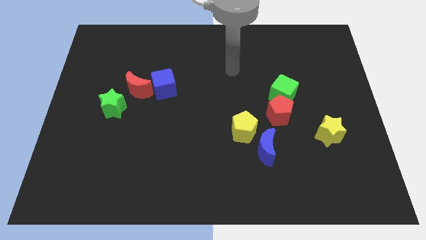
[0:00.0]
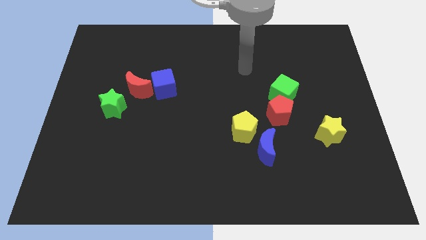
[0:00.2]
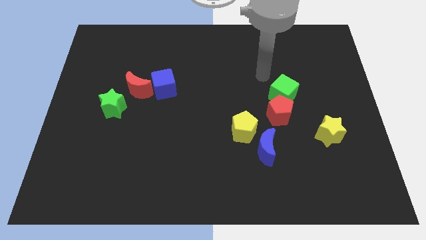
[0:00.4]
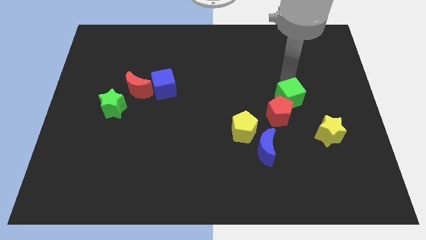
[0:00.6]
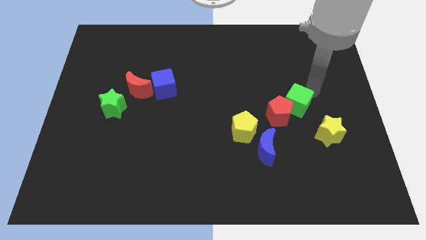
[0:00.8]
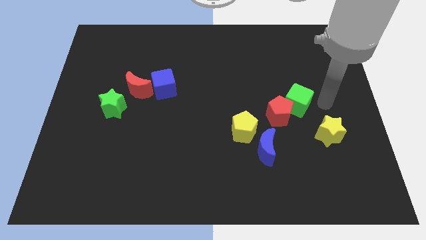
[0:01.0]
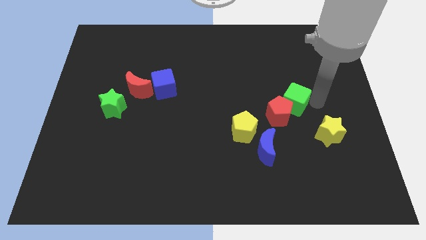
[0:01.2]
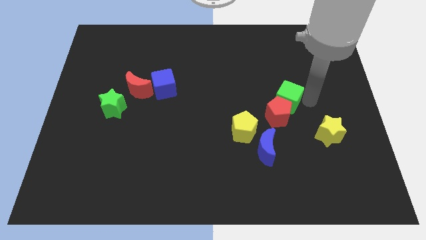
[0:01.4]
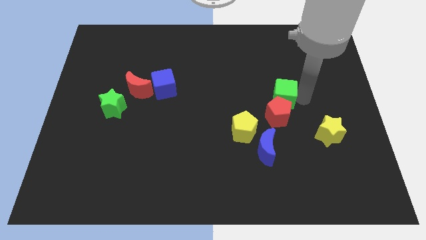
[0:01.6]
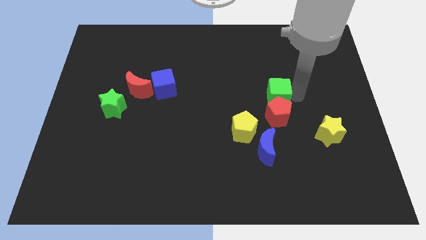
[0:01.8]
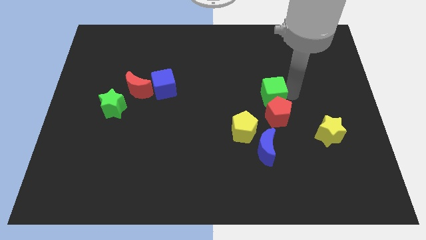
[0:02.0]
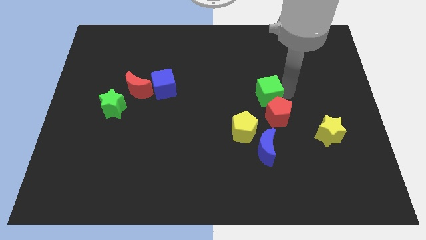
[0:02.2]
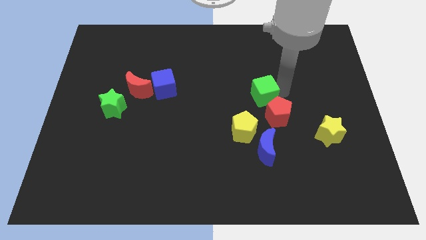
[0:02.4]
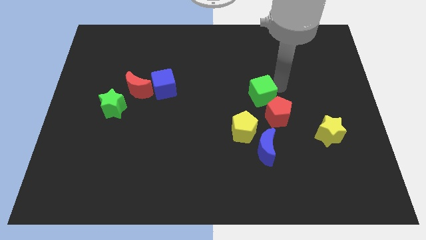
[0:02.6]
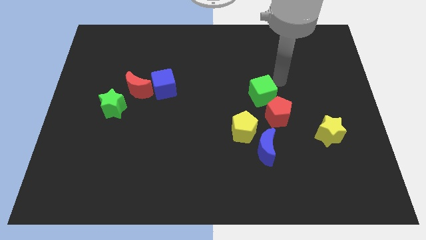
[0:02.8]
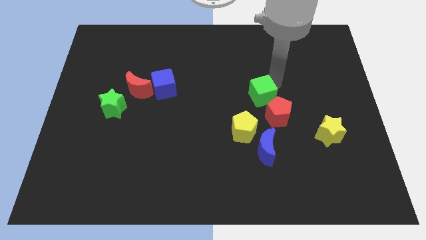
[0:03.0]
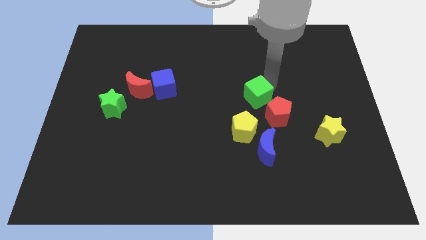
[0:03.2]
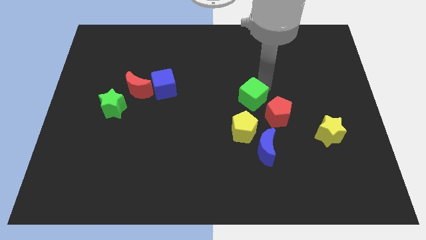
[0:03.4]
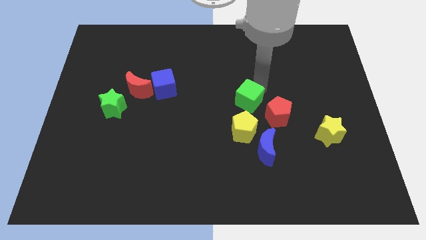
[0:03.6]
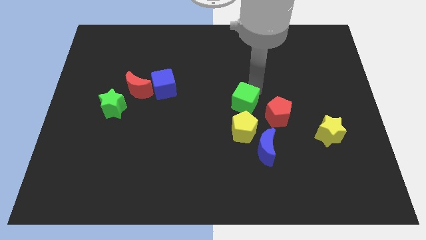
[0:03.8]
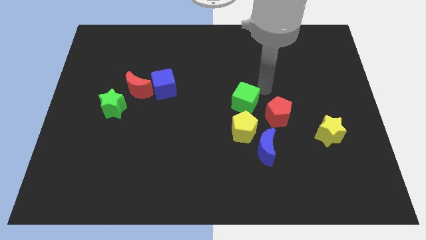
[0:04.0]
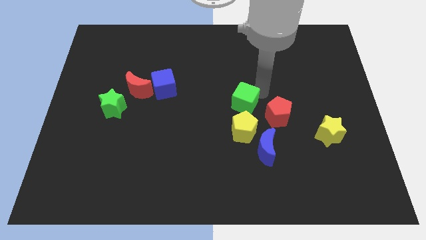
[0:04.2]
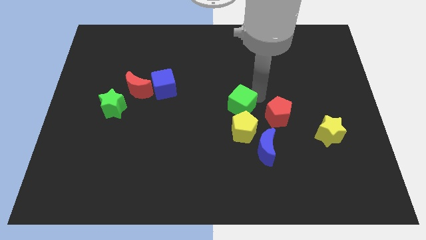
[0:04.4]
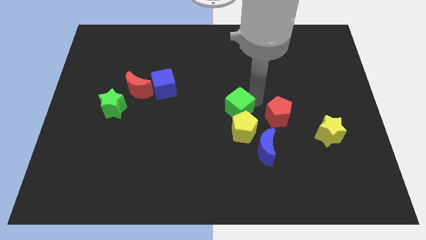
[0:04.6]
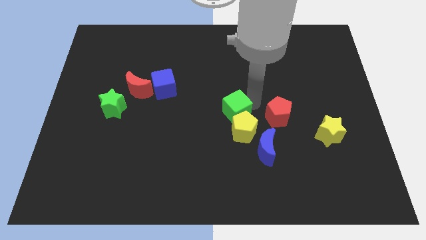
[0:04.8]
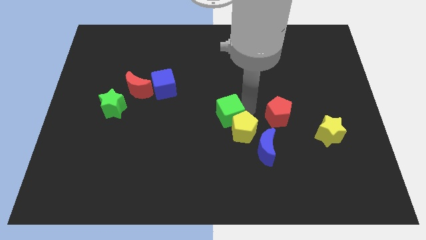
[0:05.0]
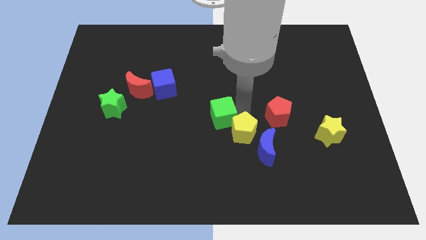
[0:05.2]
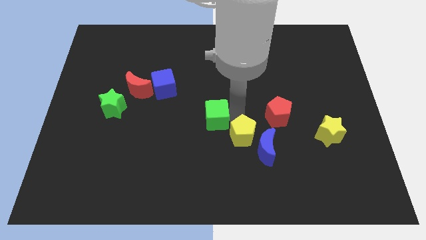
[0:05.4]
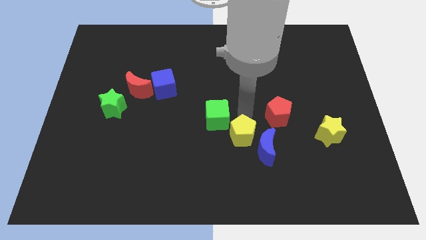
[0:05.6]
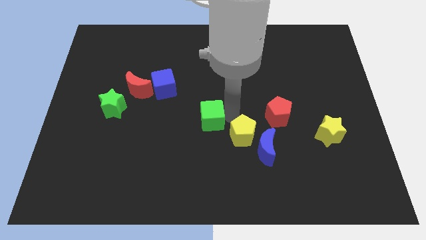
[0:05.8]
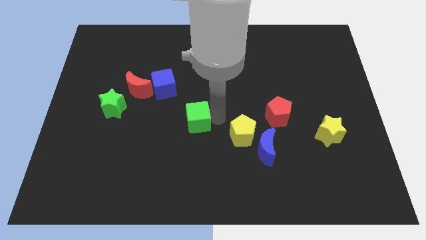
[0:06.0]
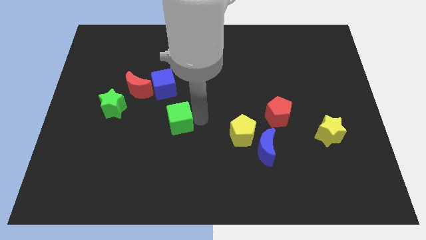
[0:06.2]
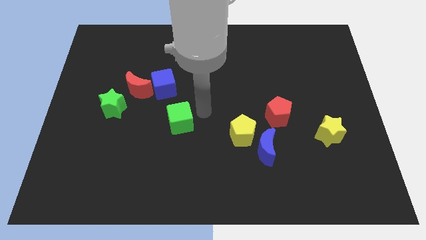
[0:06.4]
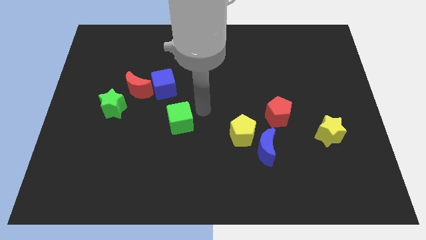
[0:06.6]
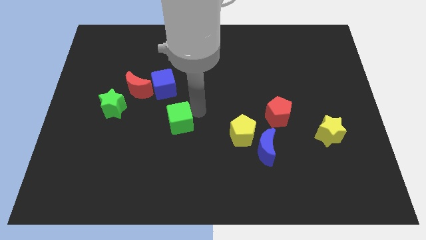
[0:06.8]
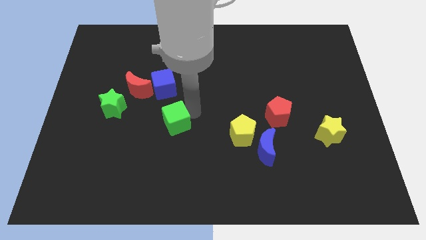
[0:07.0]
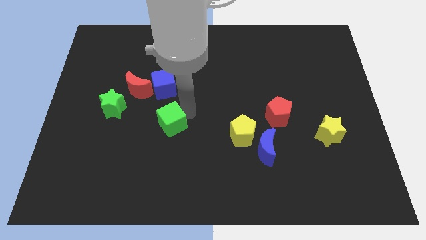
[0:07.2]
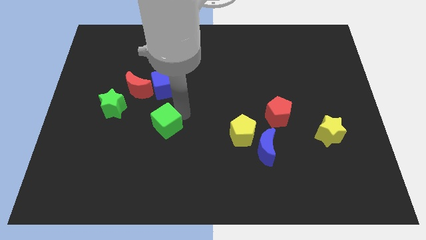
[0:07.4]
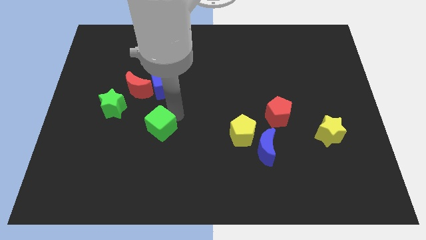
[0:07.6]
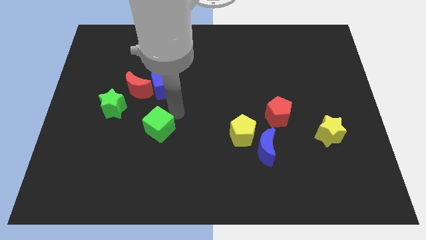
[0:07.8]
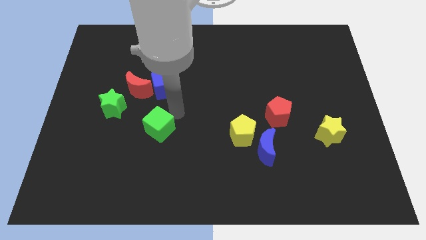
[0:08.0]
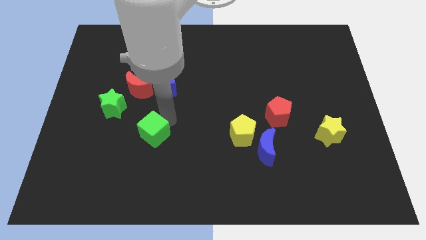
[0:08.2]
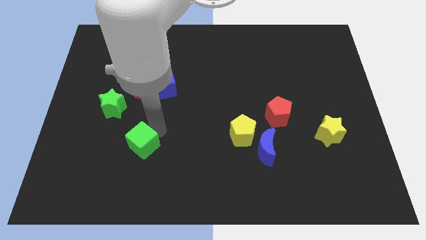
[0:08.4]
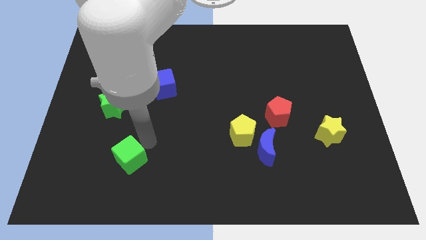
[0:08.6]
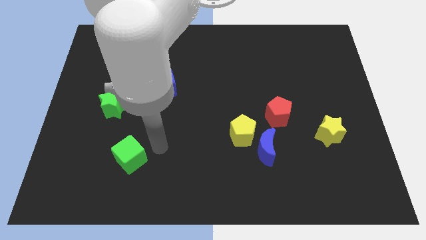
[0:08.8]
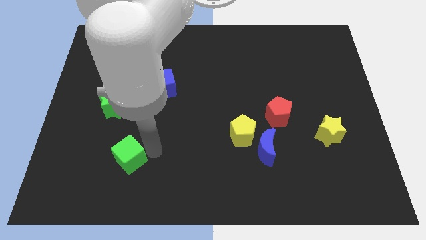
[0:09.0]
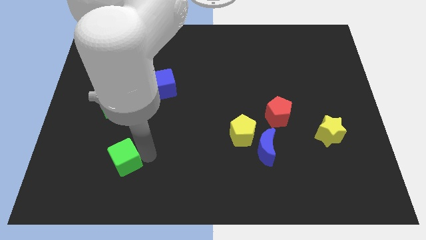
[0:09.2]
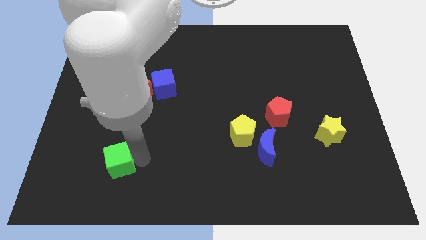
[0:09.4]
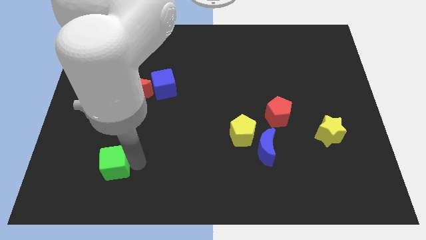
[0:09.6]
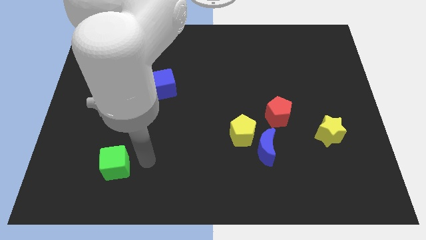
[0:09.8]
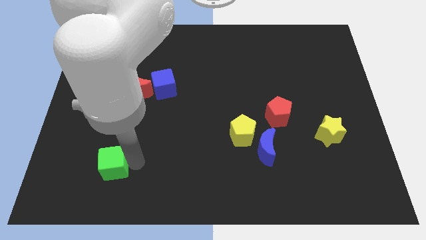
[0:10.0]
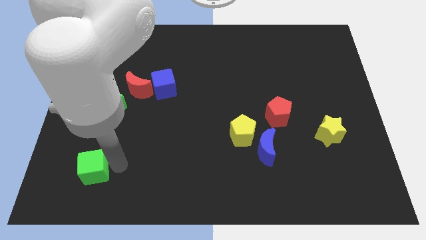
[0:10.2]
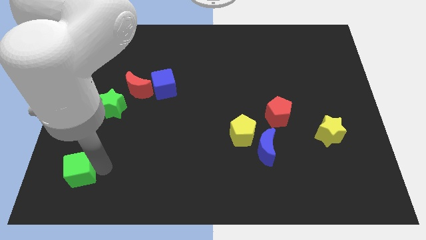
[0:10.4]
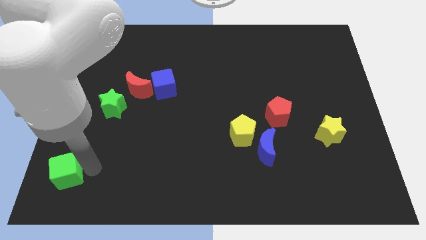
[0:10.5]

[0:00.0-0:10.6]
push the green cube to the bottom left
